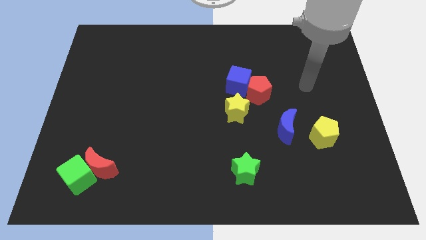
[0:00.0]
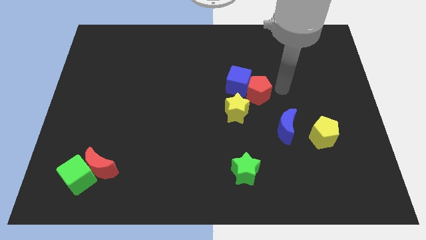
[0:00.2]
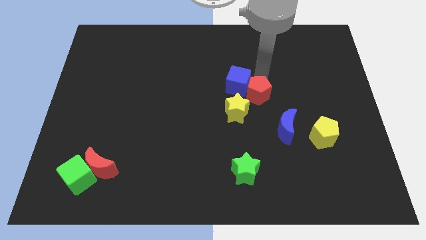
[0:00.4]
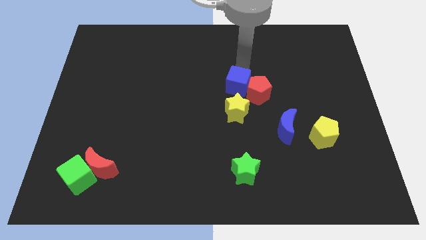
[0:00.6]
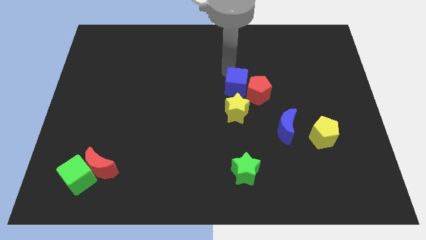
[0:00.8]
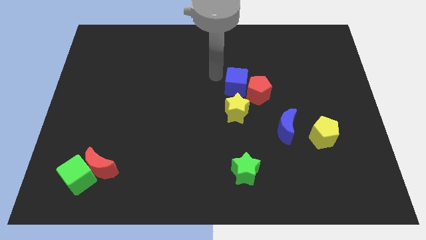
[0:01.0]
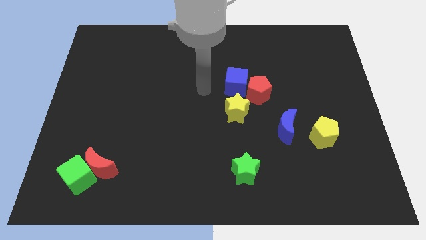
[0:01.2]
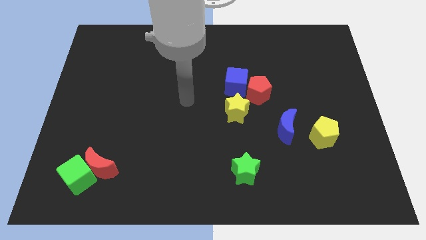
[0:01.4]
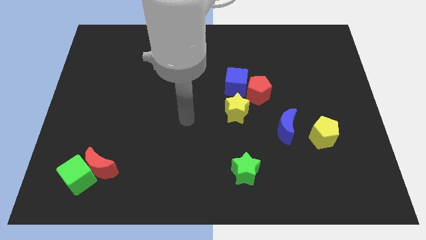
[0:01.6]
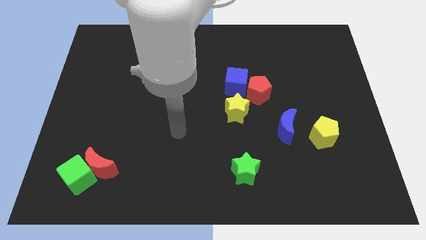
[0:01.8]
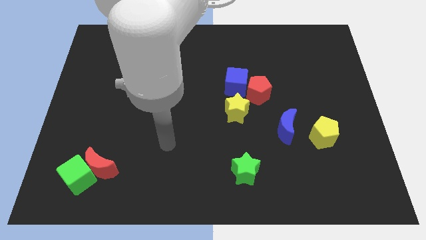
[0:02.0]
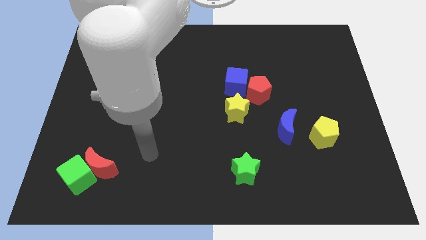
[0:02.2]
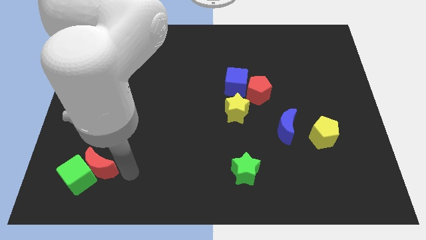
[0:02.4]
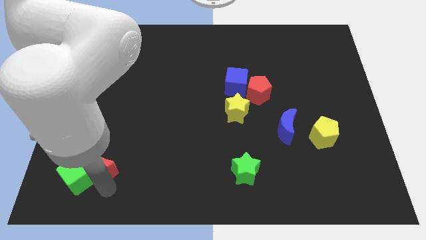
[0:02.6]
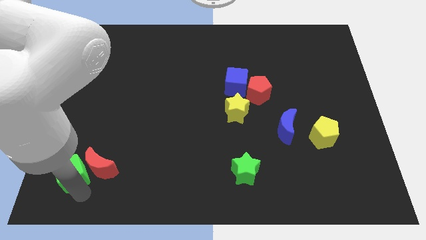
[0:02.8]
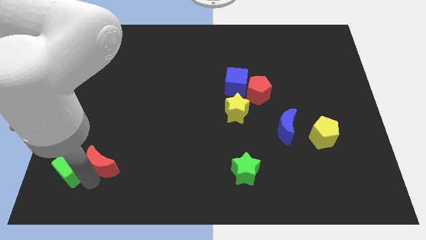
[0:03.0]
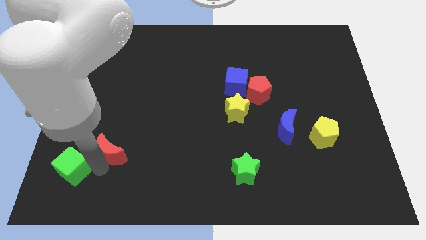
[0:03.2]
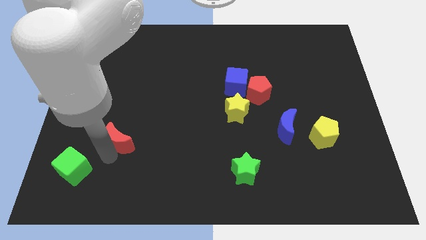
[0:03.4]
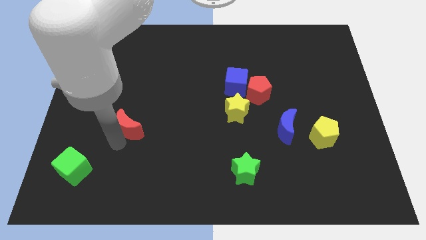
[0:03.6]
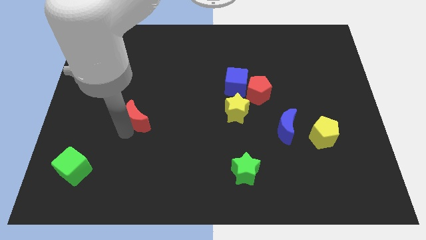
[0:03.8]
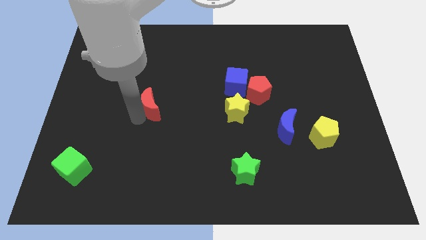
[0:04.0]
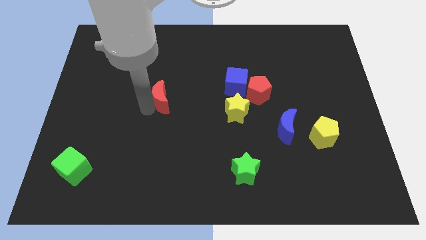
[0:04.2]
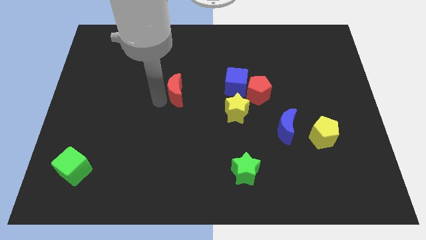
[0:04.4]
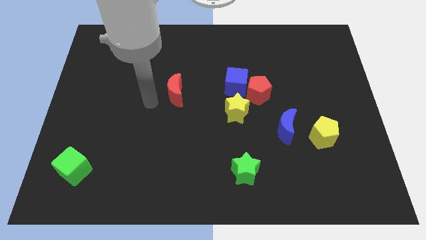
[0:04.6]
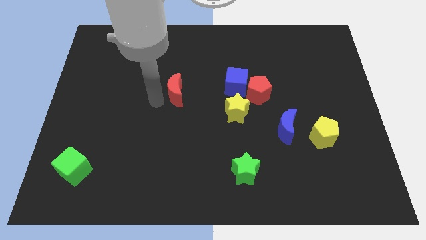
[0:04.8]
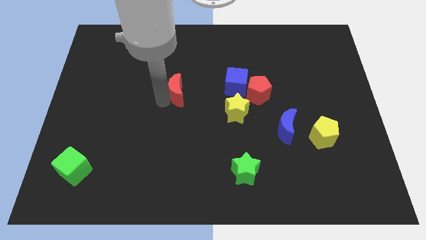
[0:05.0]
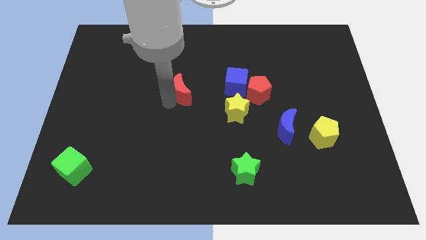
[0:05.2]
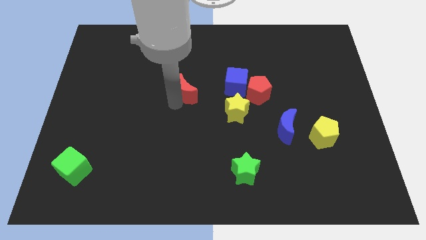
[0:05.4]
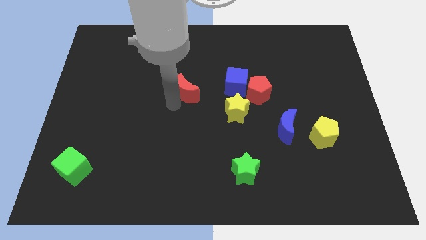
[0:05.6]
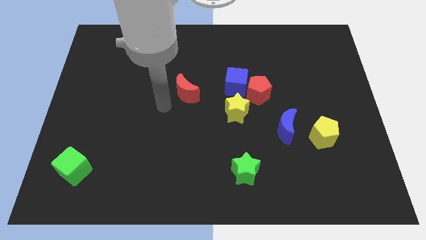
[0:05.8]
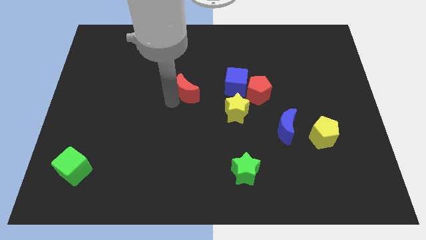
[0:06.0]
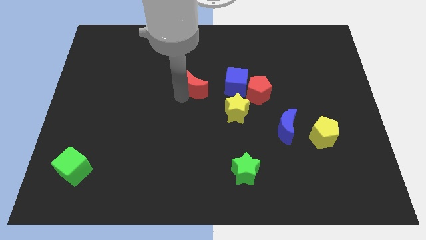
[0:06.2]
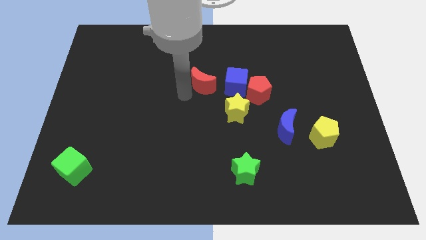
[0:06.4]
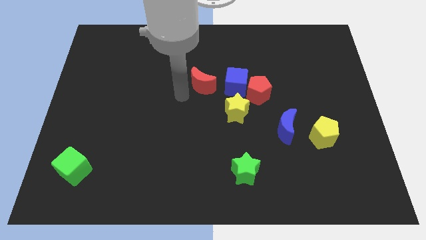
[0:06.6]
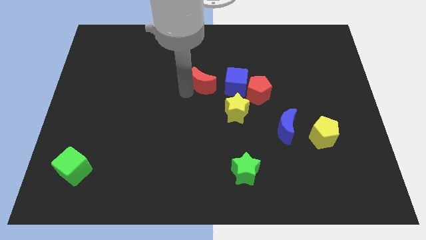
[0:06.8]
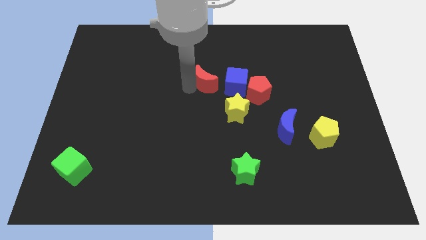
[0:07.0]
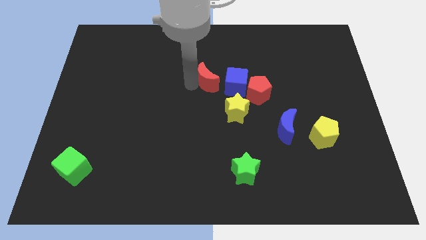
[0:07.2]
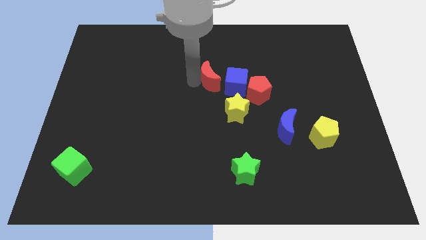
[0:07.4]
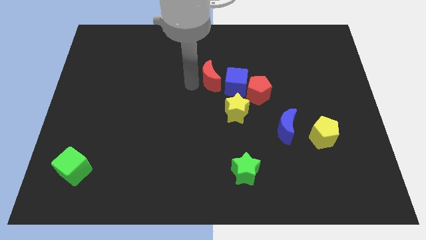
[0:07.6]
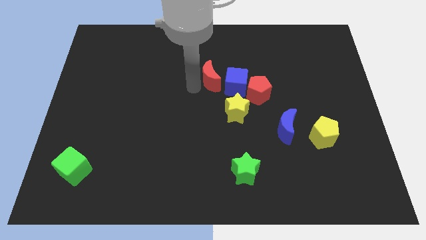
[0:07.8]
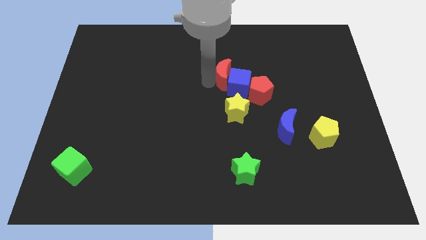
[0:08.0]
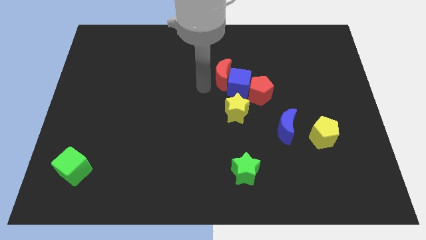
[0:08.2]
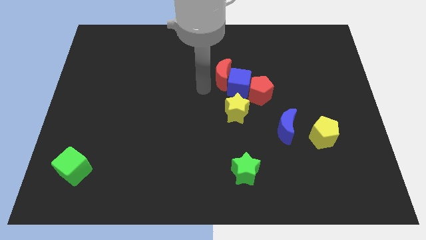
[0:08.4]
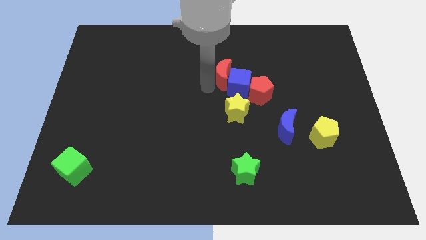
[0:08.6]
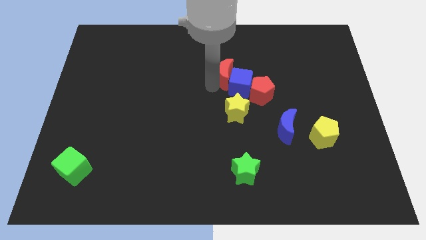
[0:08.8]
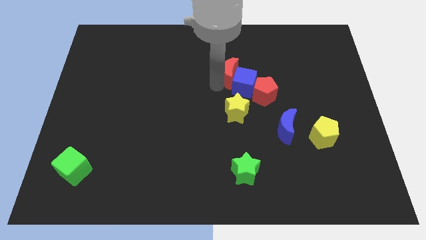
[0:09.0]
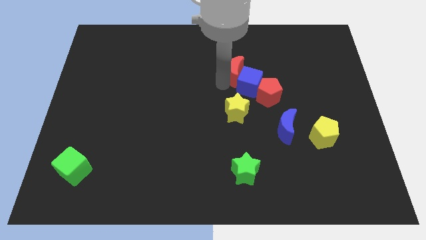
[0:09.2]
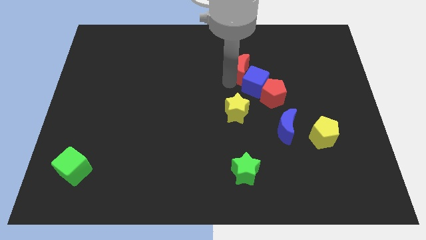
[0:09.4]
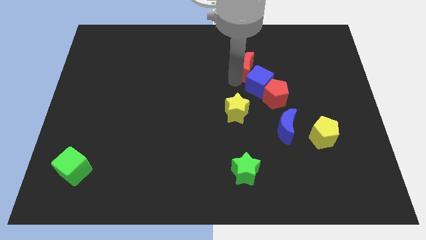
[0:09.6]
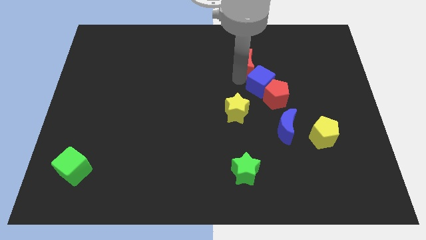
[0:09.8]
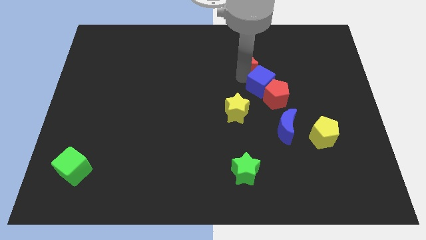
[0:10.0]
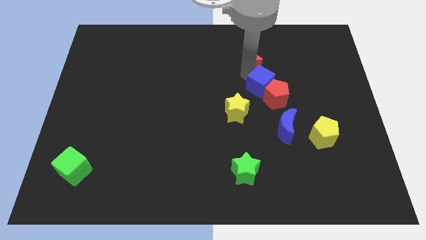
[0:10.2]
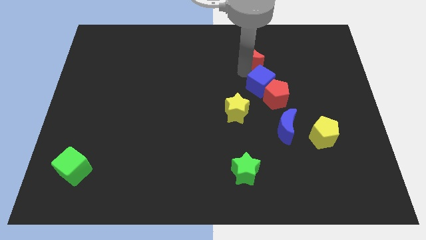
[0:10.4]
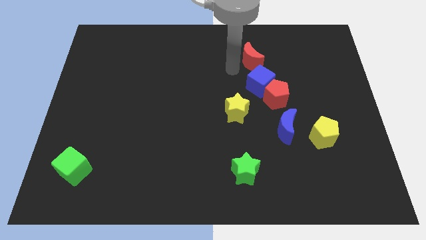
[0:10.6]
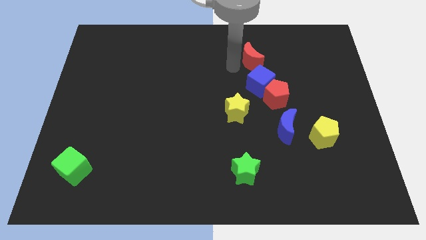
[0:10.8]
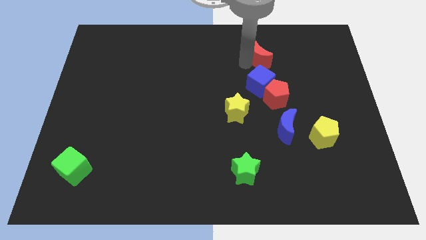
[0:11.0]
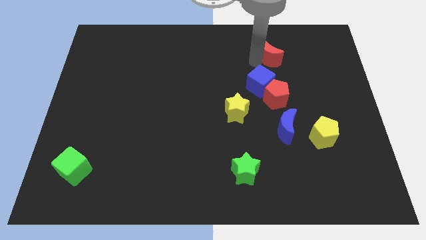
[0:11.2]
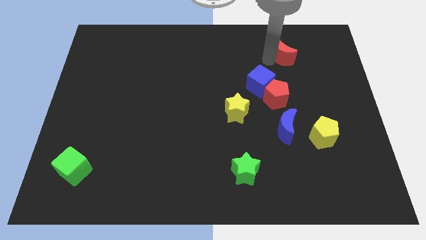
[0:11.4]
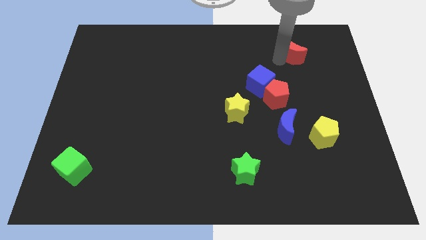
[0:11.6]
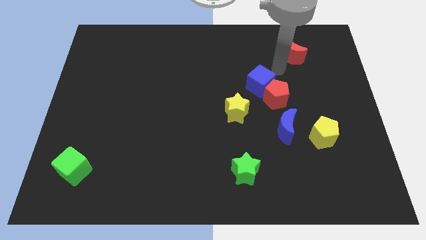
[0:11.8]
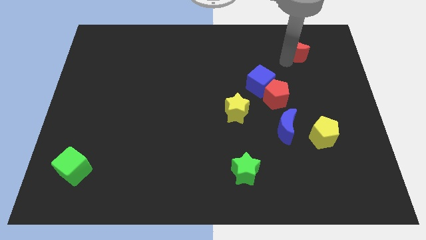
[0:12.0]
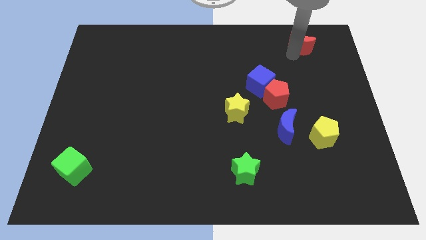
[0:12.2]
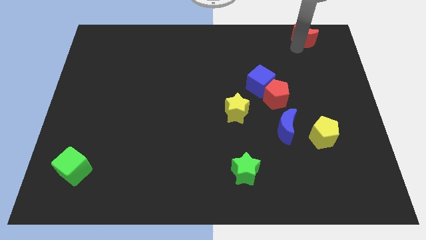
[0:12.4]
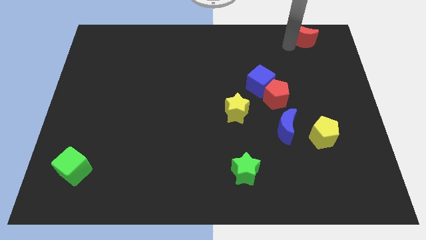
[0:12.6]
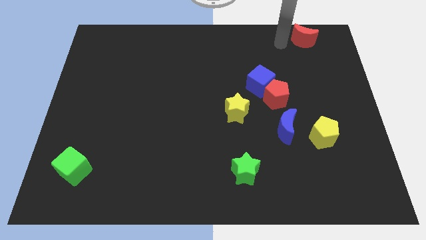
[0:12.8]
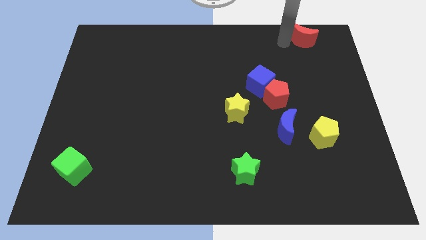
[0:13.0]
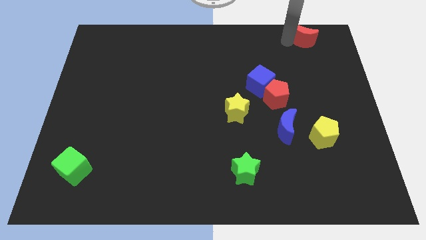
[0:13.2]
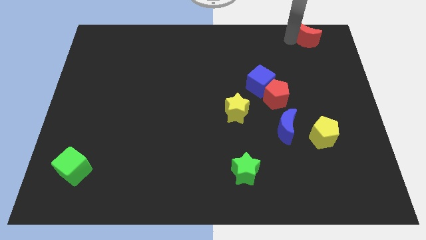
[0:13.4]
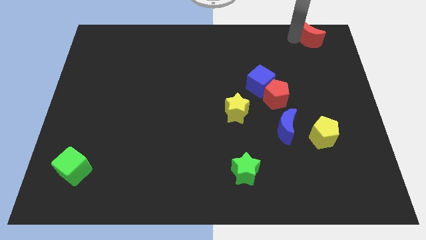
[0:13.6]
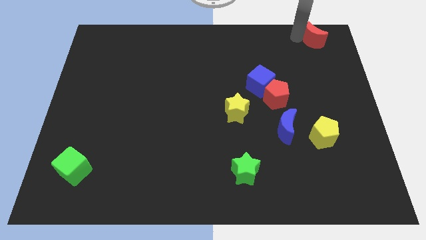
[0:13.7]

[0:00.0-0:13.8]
move the red moon to the top right of the board
